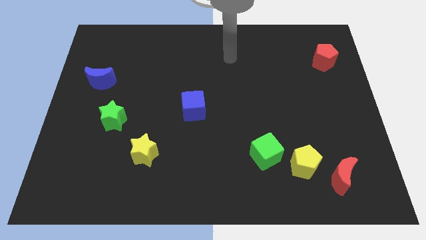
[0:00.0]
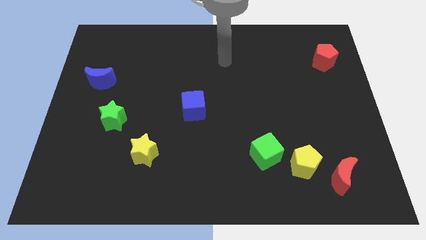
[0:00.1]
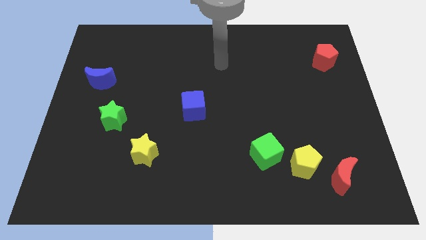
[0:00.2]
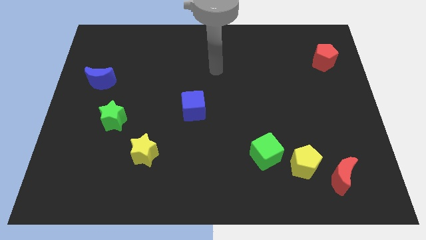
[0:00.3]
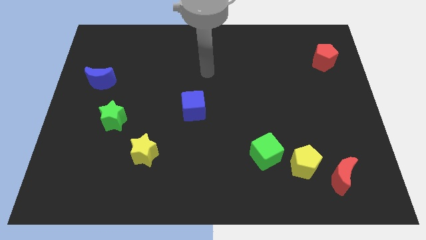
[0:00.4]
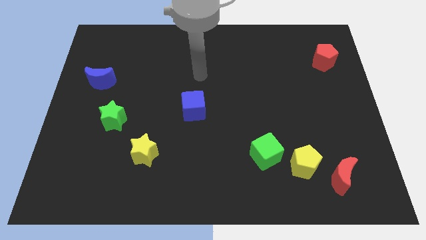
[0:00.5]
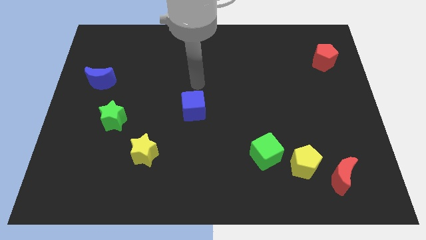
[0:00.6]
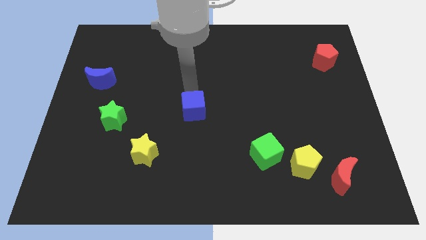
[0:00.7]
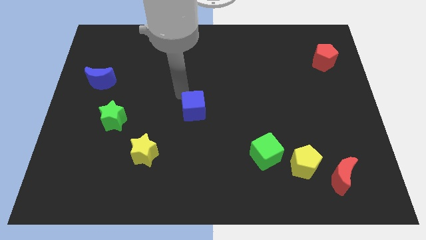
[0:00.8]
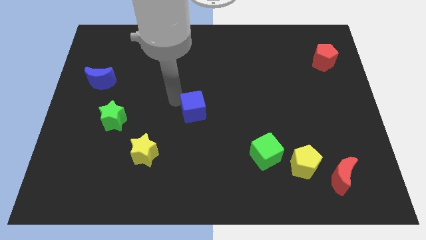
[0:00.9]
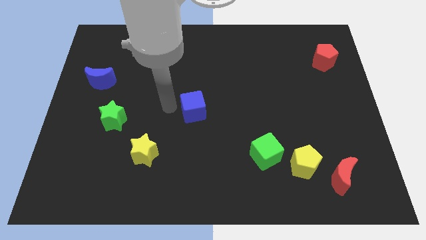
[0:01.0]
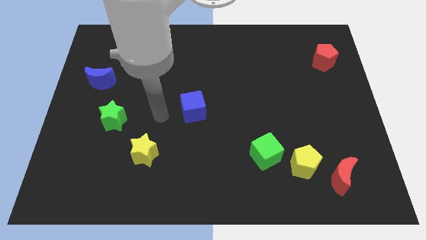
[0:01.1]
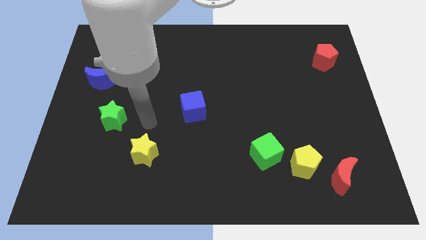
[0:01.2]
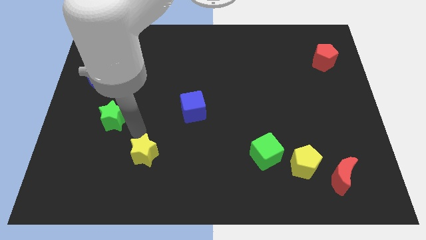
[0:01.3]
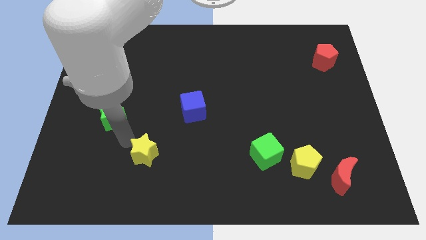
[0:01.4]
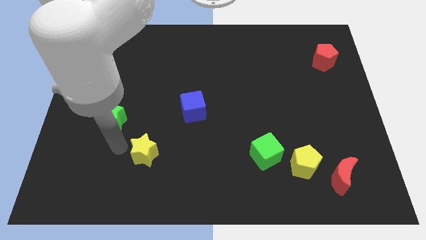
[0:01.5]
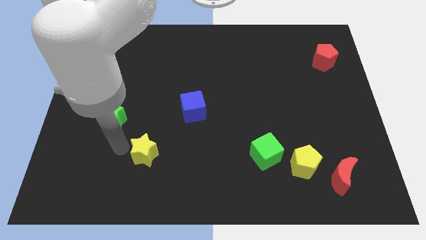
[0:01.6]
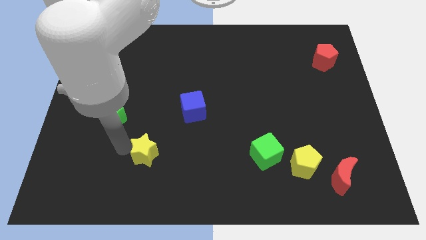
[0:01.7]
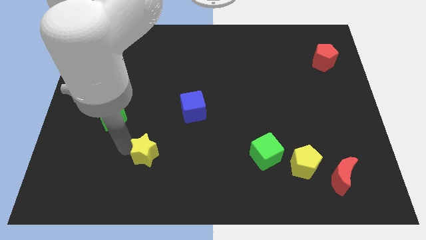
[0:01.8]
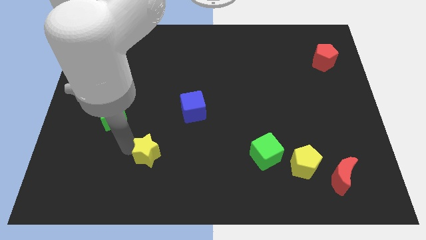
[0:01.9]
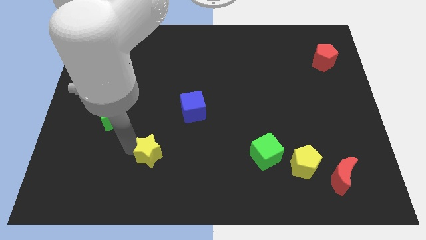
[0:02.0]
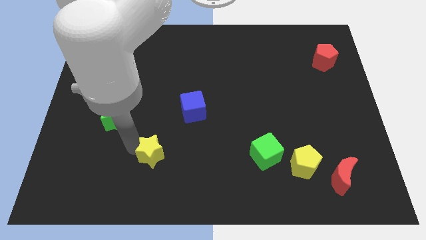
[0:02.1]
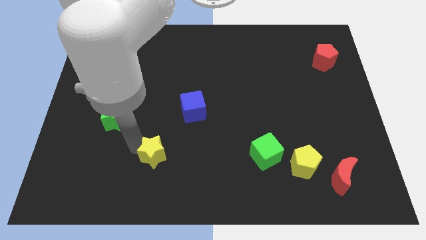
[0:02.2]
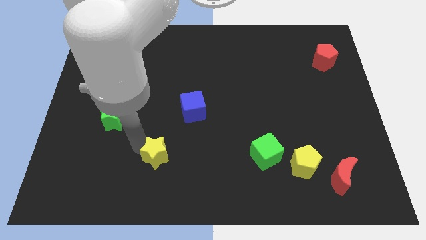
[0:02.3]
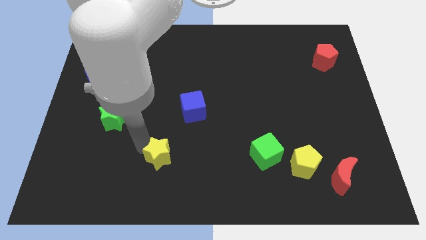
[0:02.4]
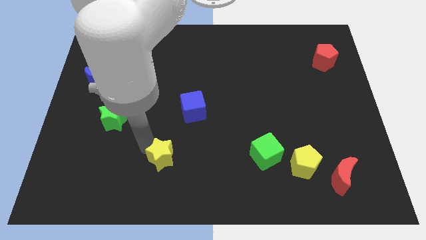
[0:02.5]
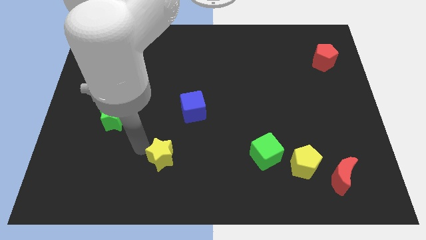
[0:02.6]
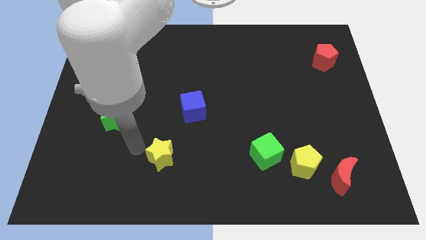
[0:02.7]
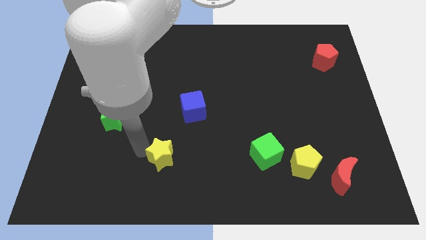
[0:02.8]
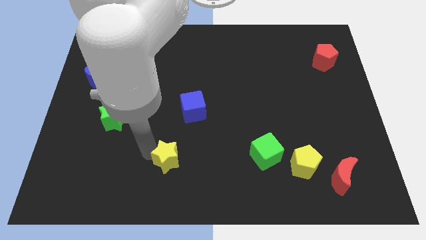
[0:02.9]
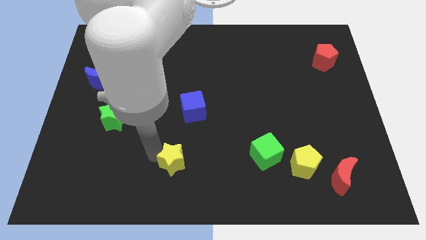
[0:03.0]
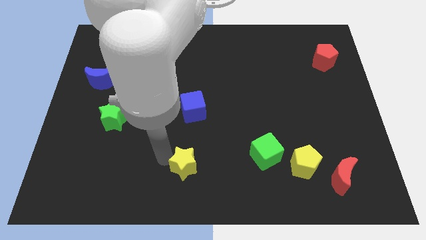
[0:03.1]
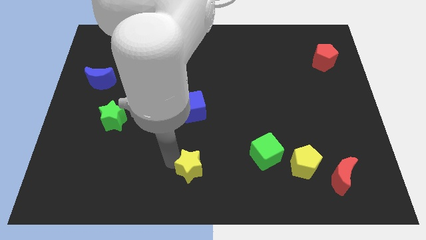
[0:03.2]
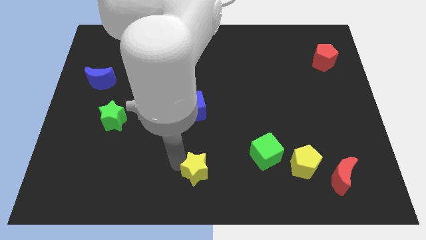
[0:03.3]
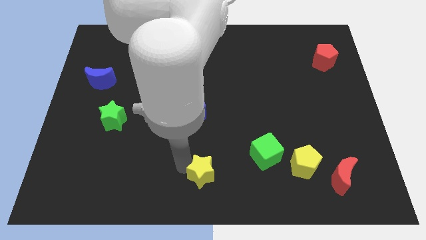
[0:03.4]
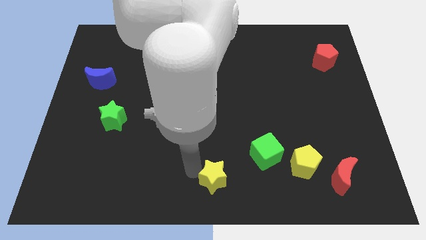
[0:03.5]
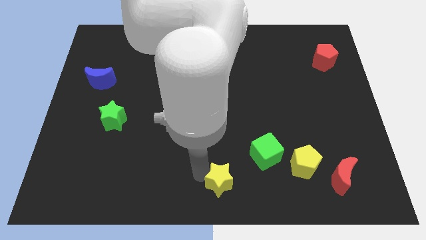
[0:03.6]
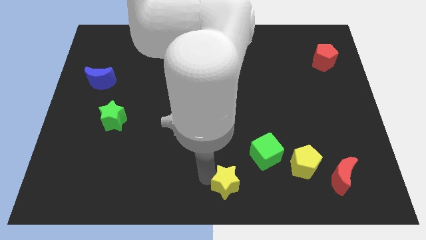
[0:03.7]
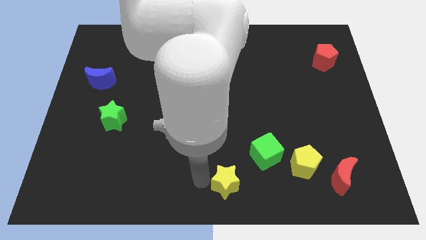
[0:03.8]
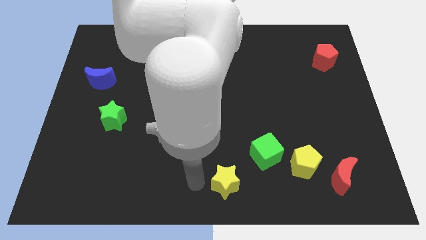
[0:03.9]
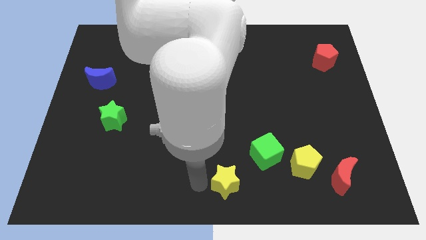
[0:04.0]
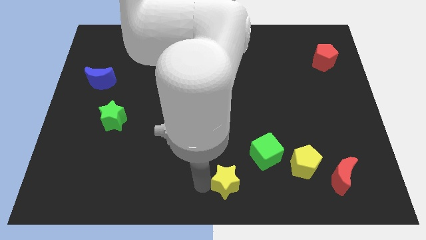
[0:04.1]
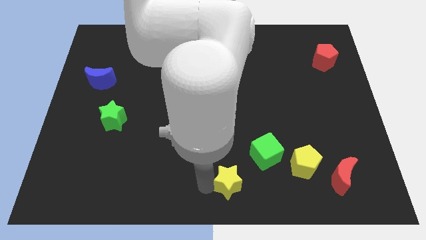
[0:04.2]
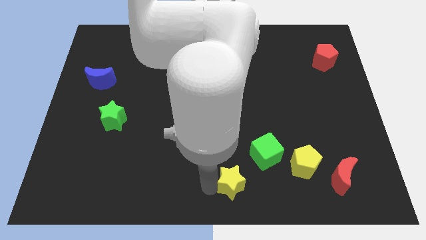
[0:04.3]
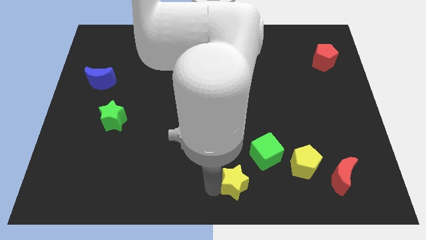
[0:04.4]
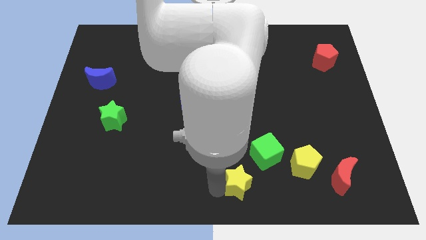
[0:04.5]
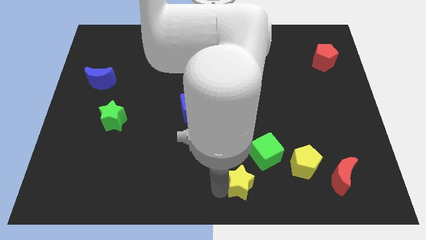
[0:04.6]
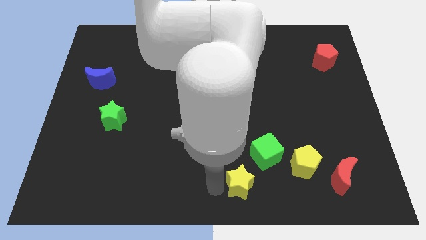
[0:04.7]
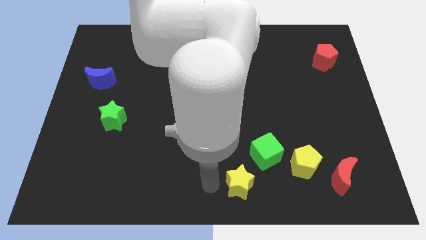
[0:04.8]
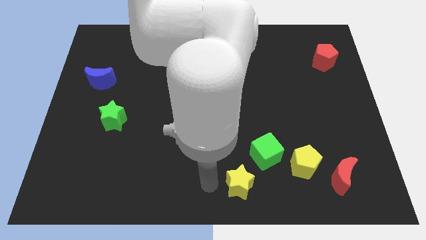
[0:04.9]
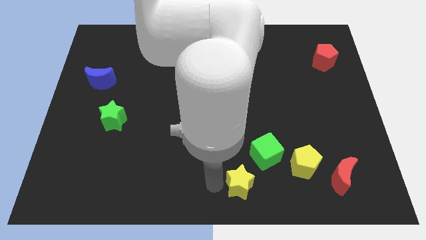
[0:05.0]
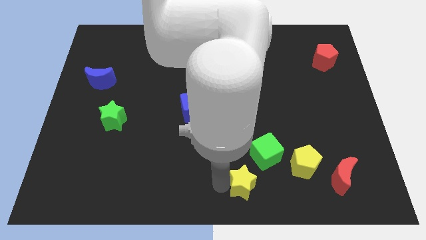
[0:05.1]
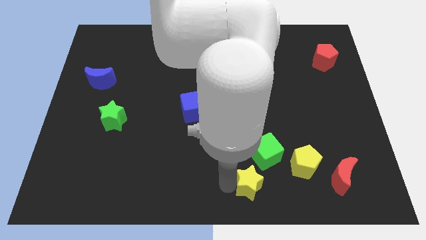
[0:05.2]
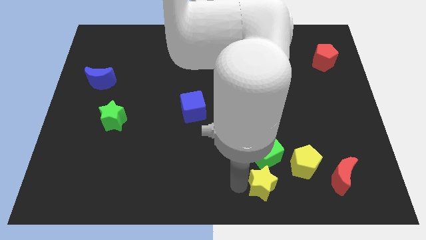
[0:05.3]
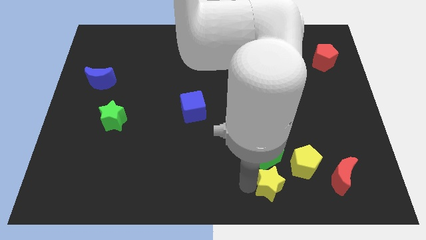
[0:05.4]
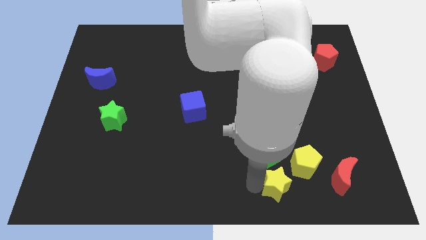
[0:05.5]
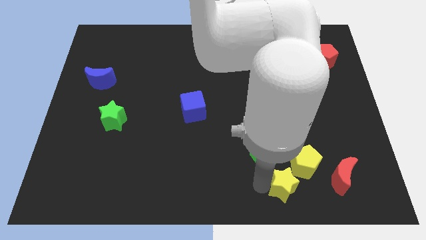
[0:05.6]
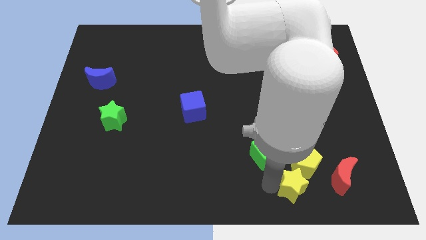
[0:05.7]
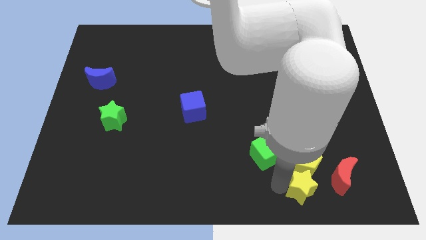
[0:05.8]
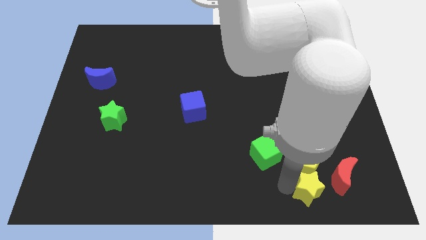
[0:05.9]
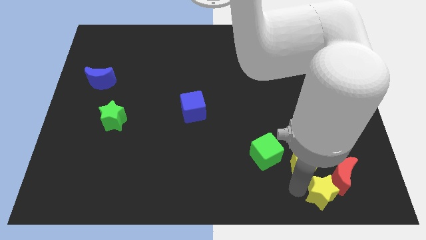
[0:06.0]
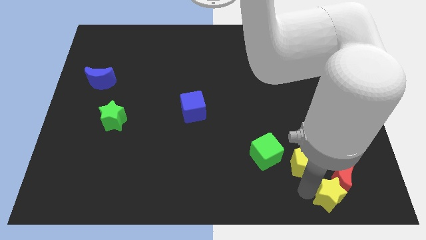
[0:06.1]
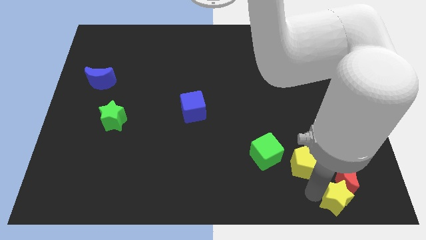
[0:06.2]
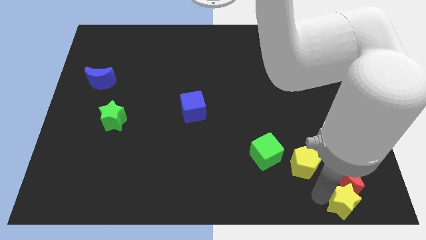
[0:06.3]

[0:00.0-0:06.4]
slide the yellow star to the lower right corner
